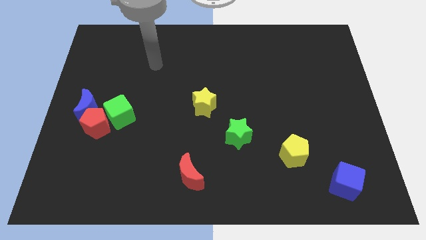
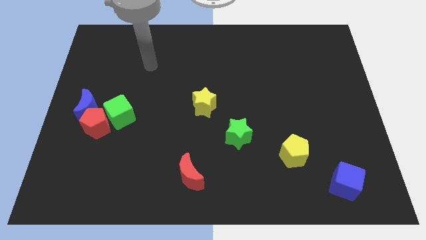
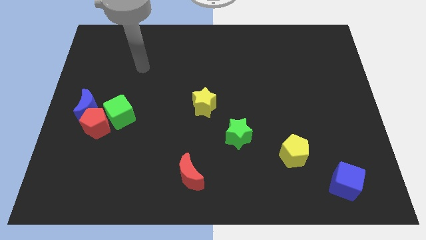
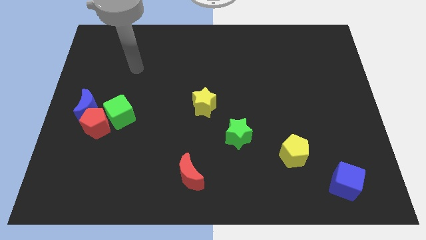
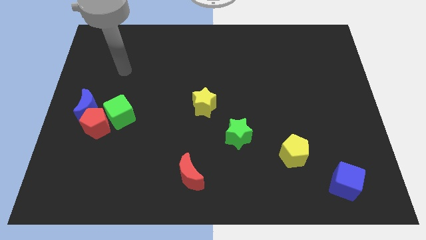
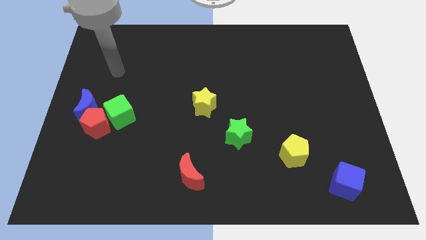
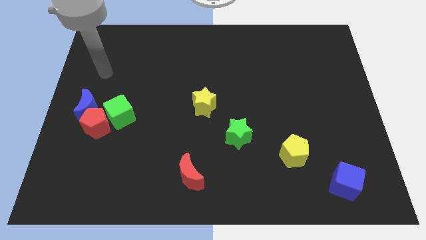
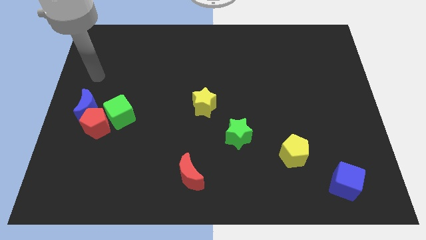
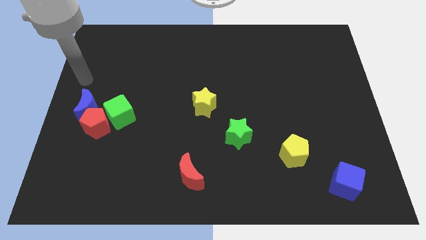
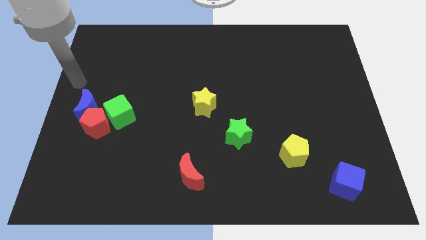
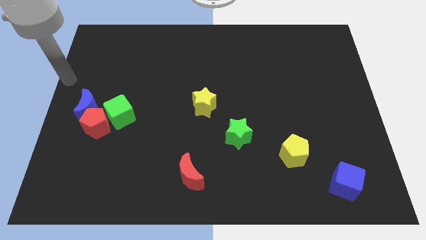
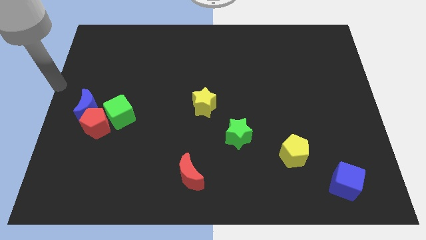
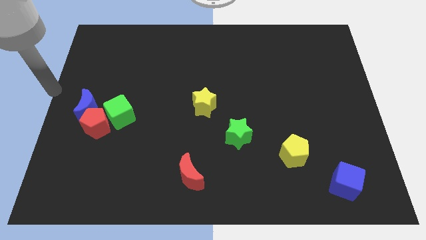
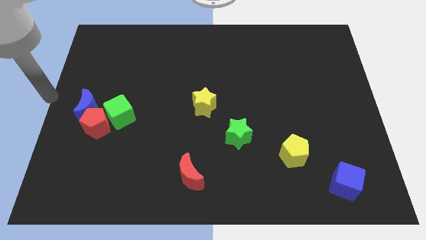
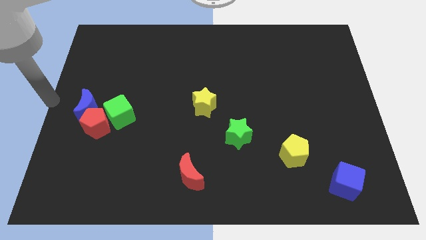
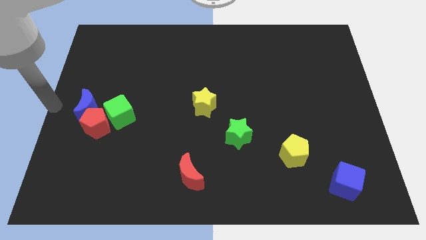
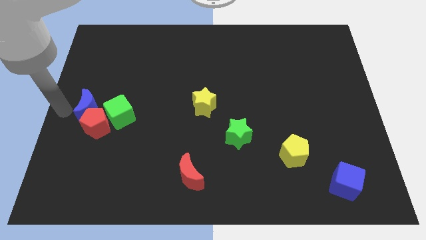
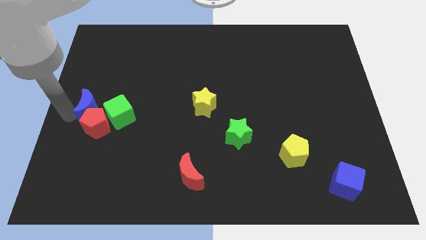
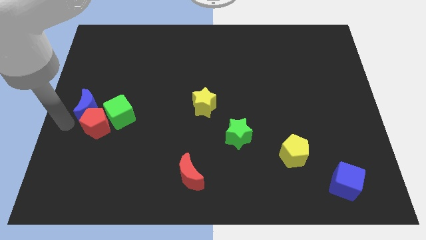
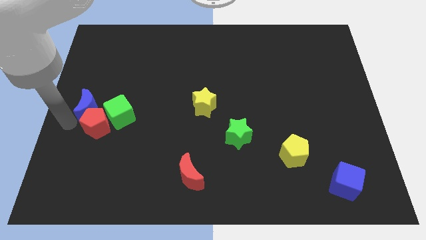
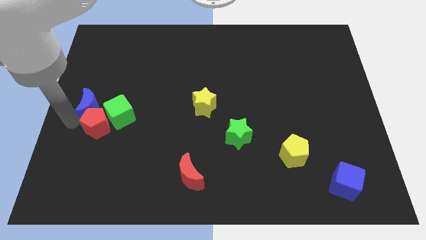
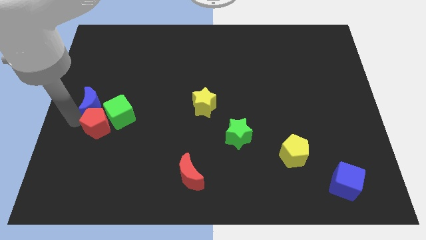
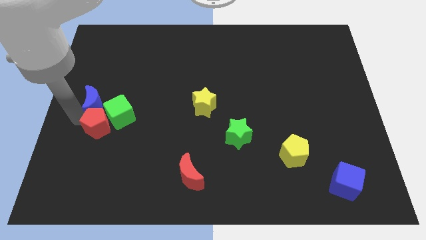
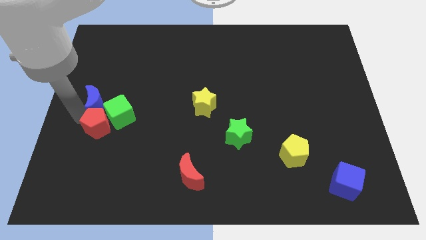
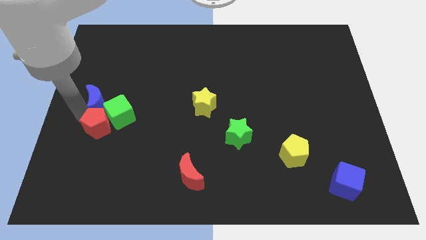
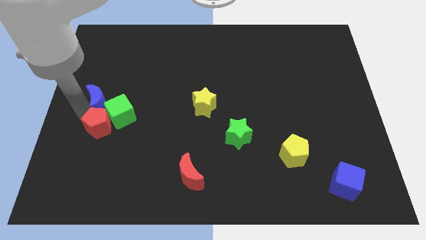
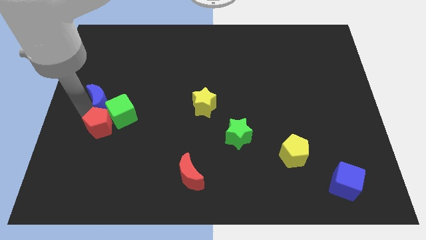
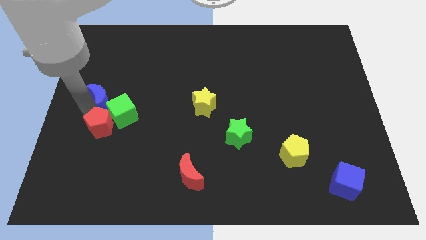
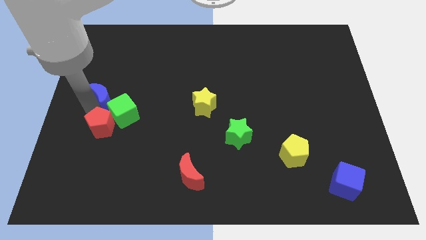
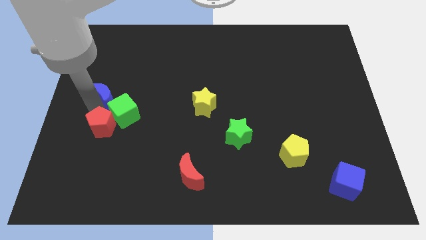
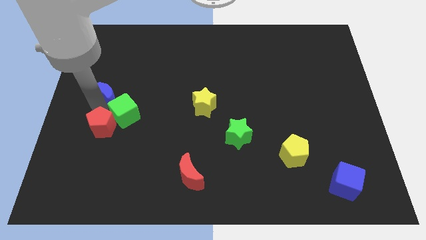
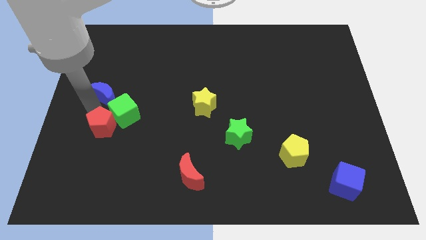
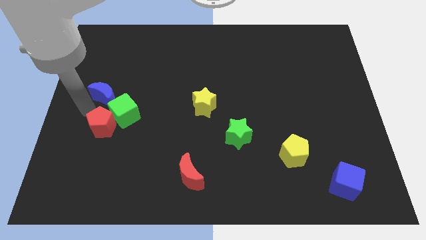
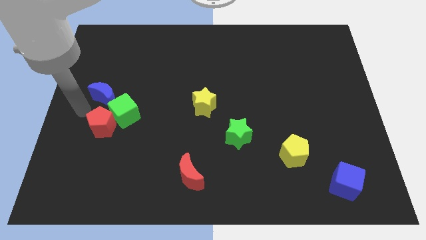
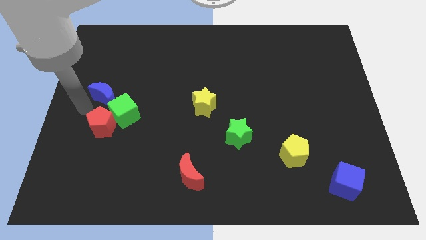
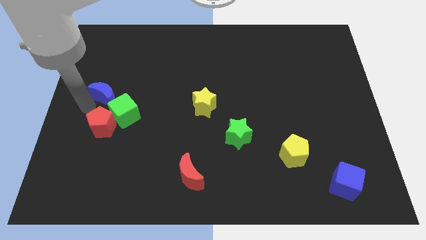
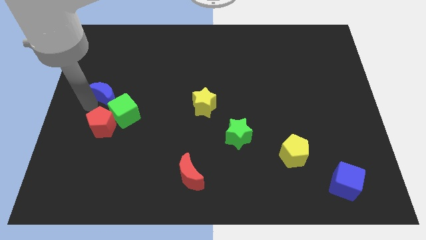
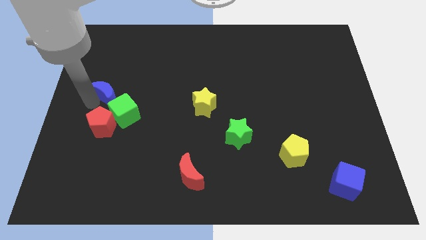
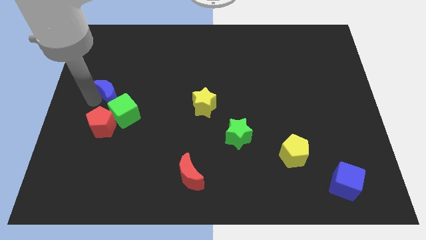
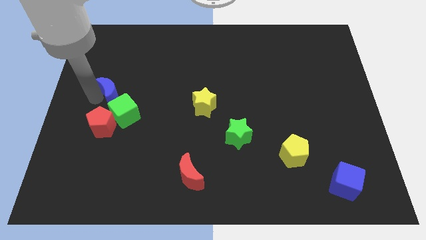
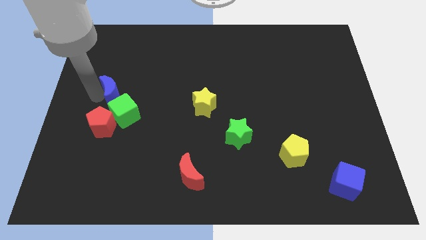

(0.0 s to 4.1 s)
slide the blue moon slightly diagonally up and right

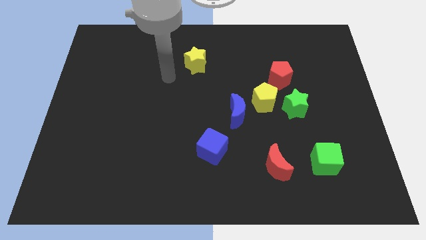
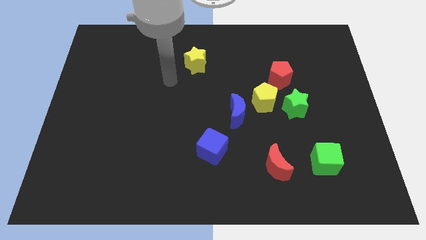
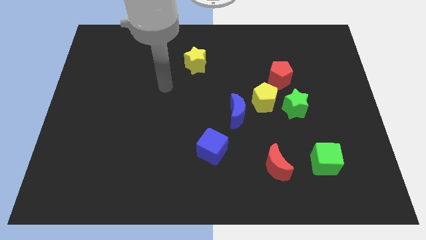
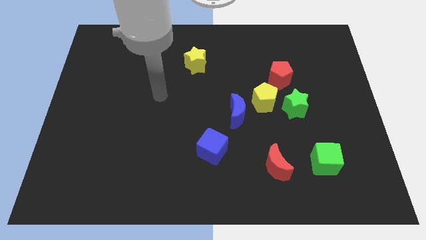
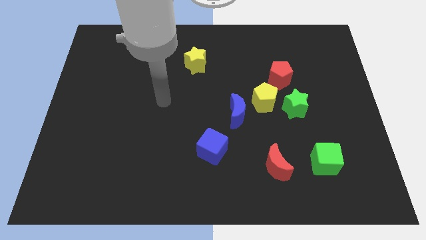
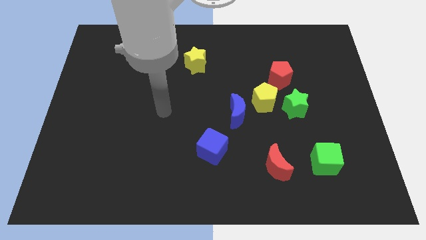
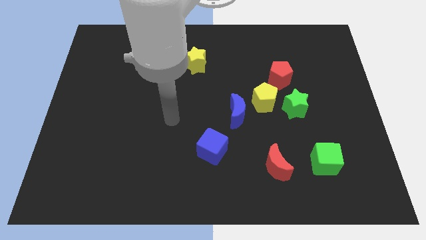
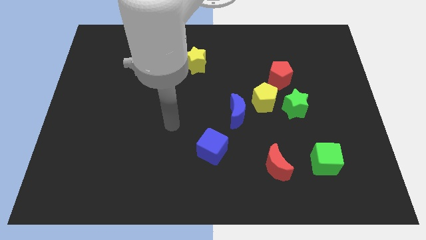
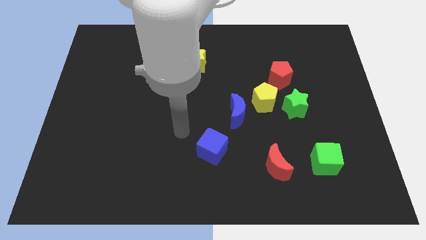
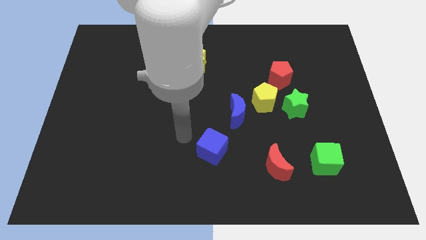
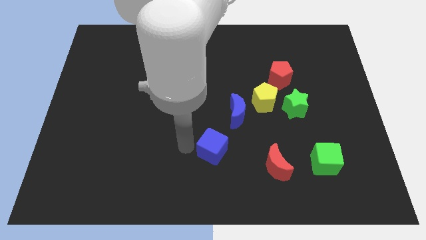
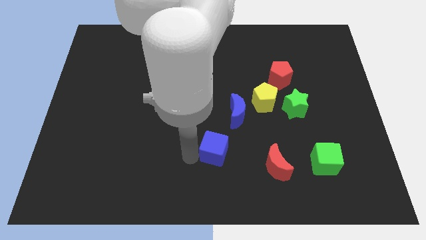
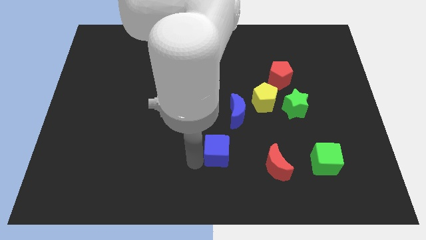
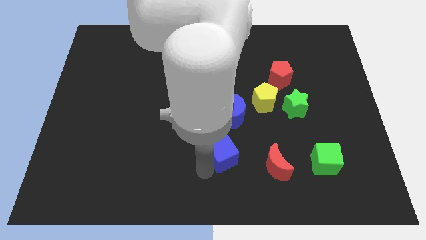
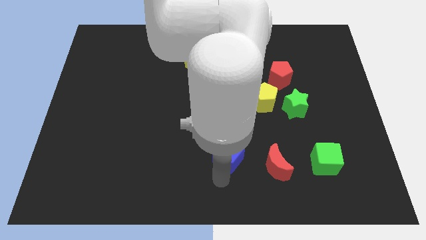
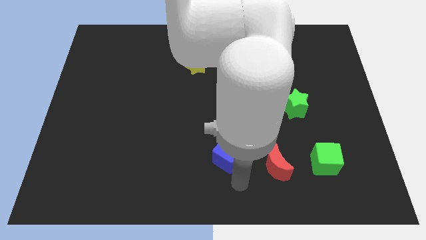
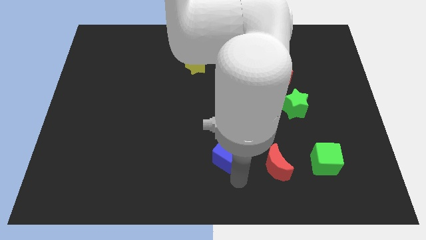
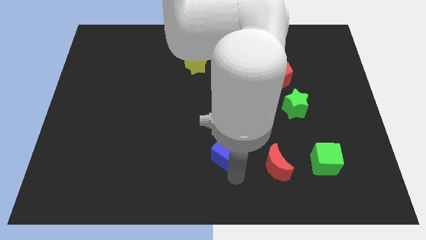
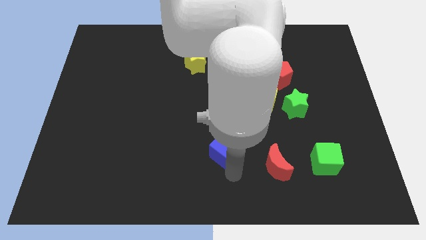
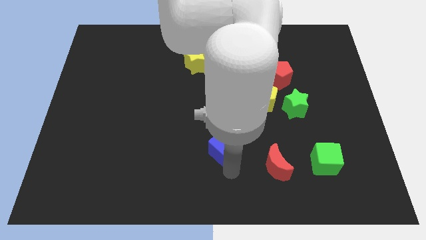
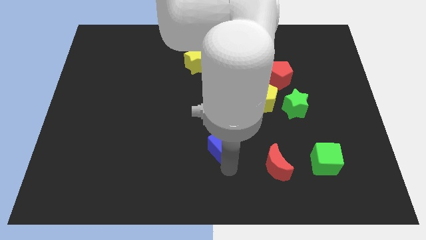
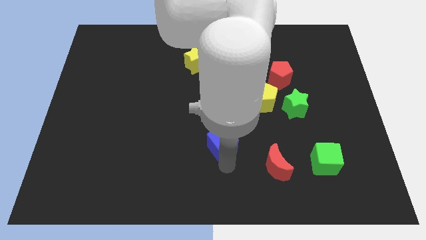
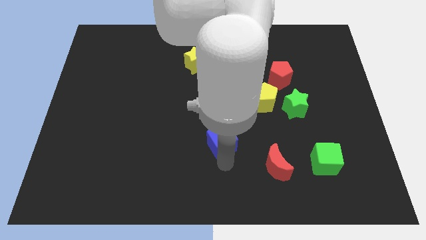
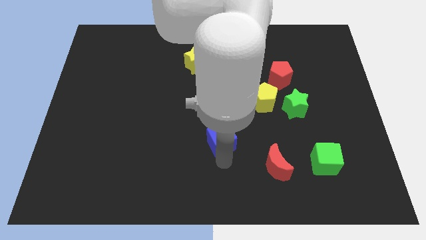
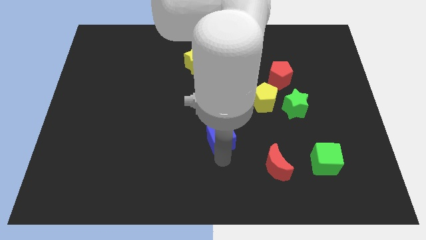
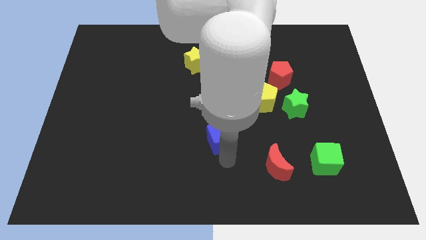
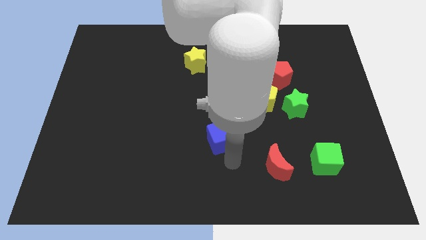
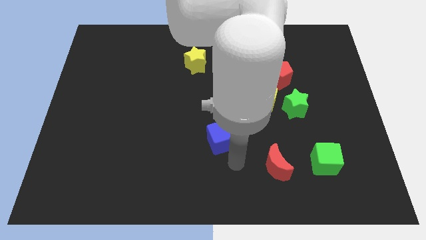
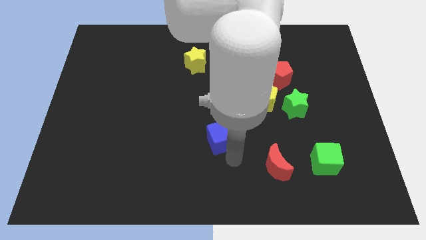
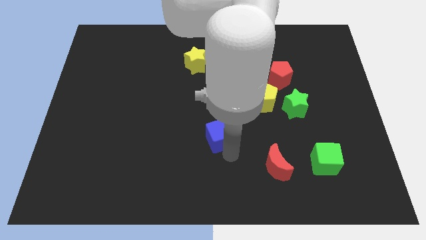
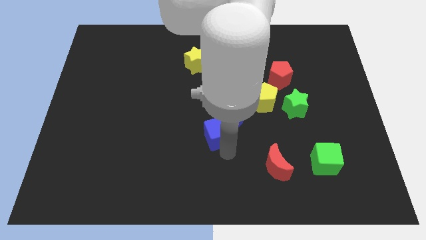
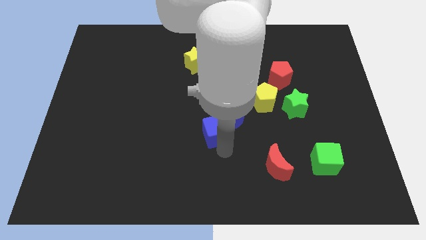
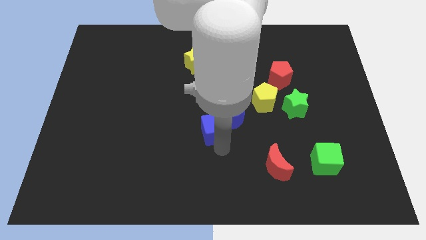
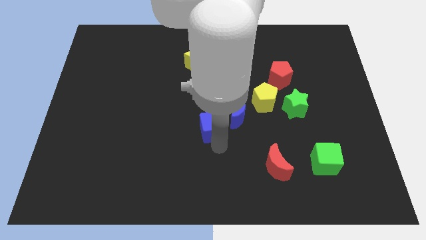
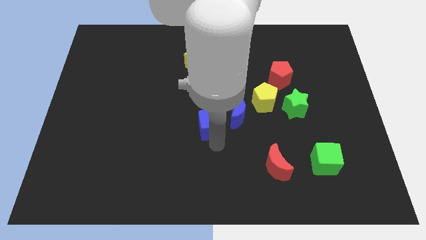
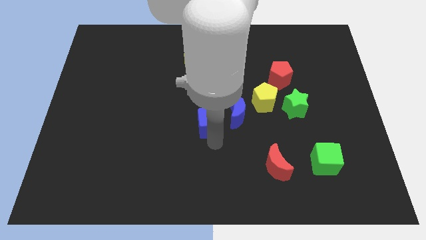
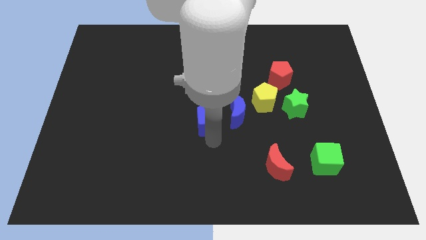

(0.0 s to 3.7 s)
slide the blue cube slightly upwards

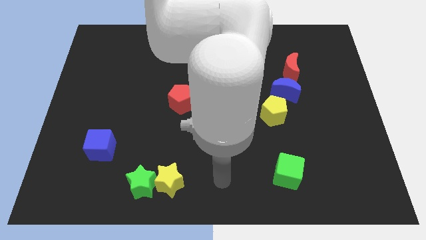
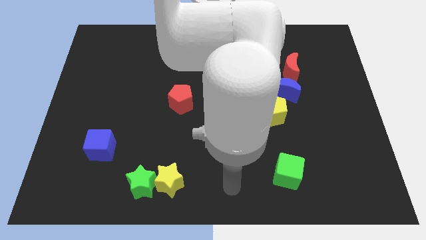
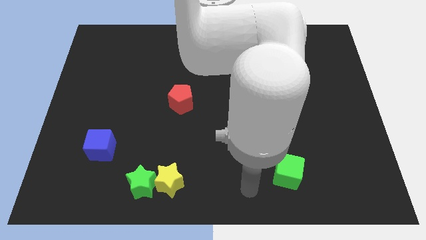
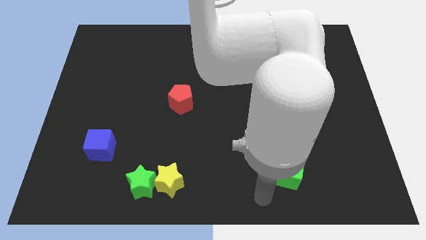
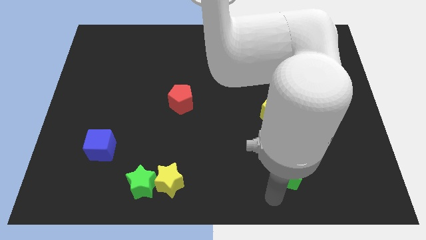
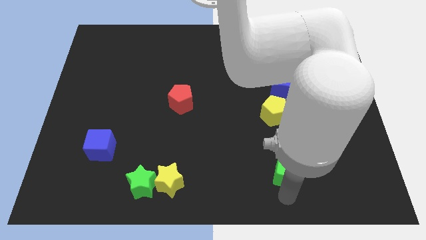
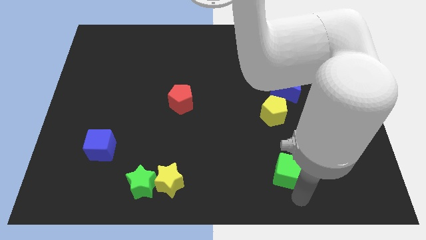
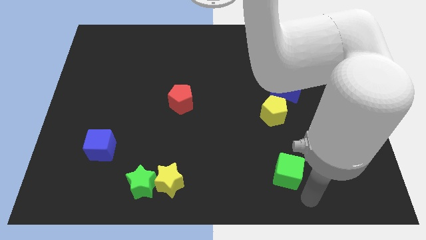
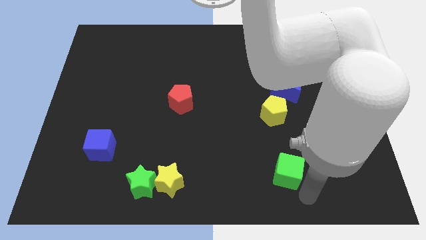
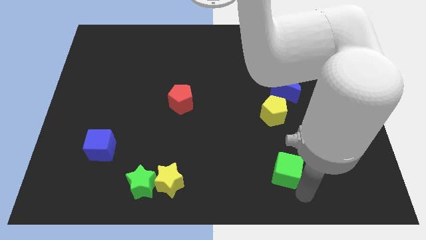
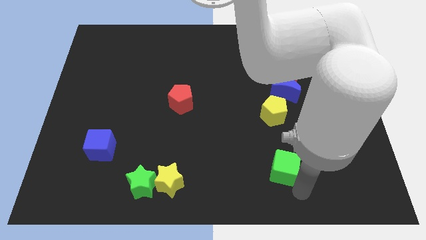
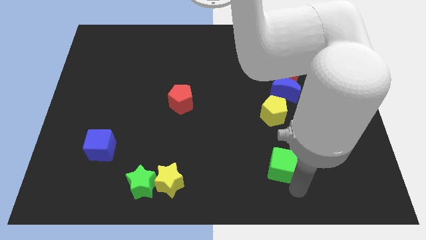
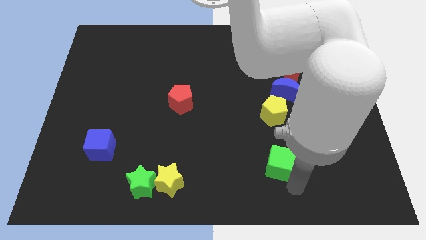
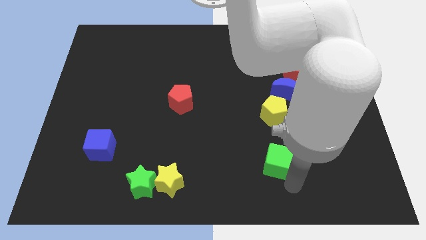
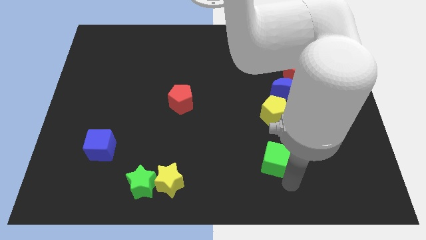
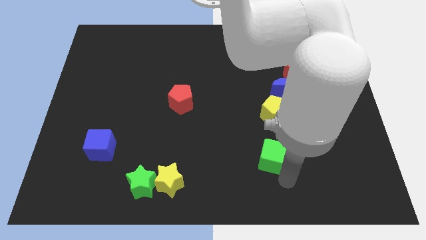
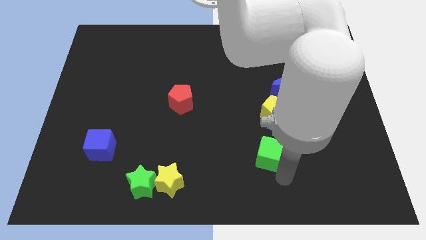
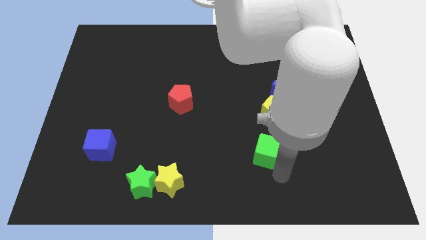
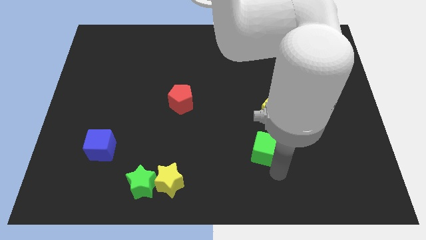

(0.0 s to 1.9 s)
slightly move the green cube up and to the left
